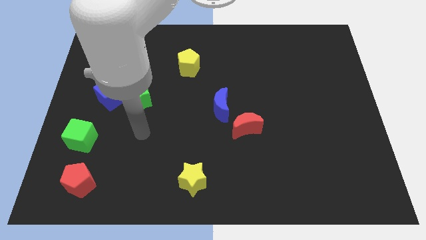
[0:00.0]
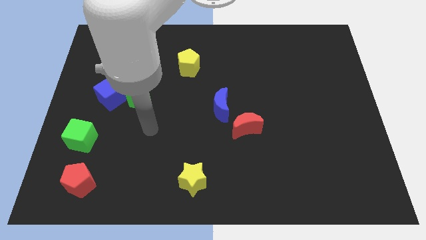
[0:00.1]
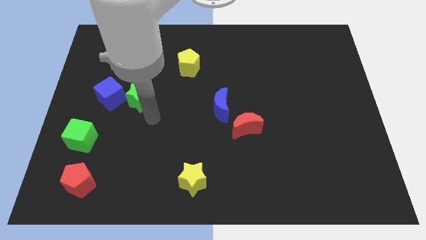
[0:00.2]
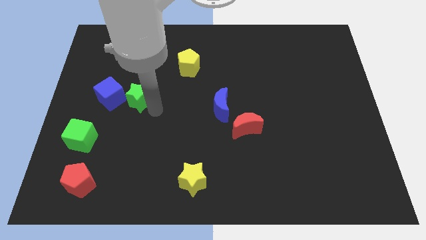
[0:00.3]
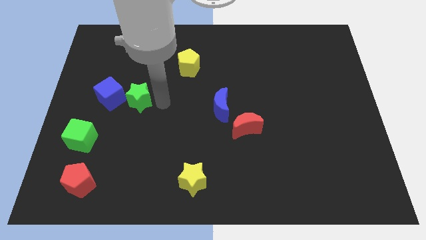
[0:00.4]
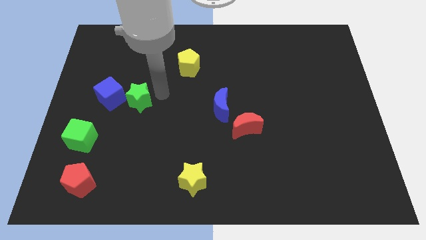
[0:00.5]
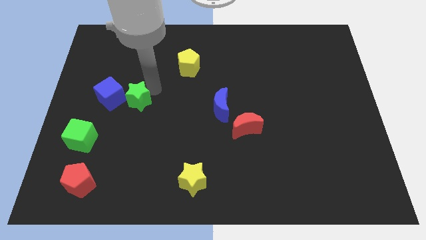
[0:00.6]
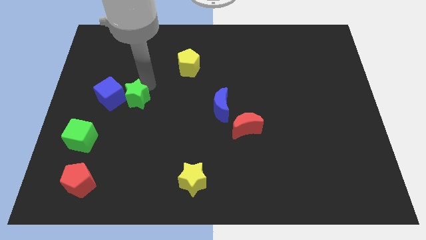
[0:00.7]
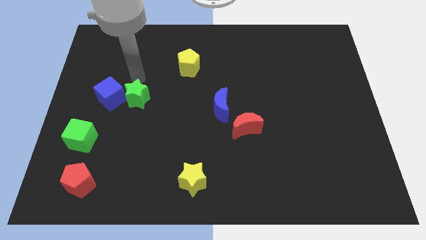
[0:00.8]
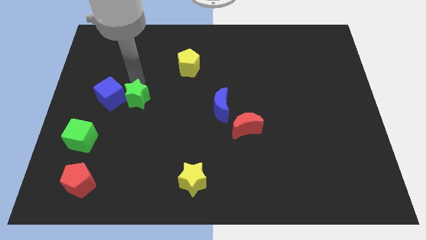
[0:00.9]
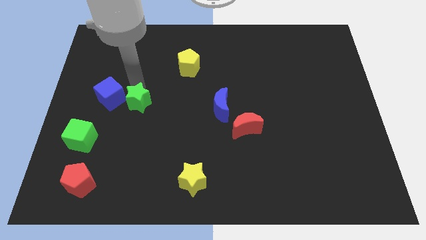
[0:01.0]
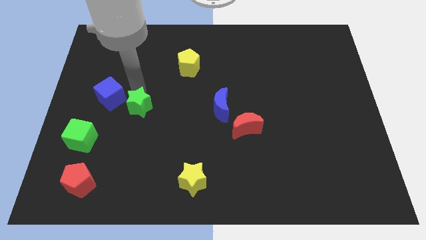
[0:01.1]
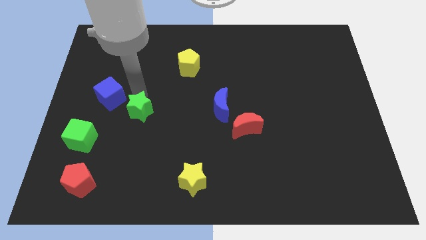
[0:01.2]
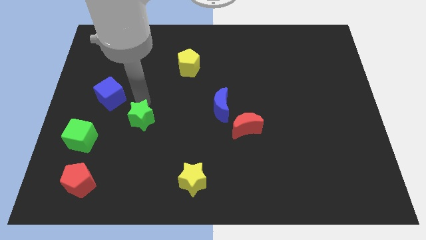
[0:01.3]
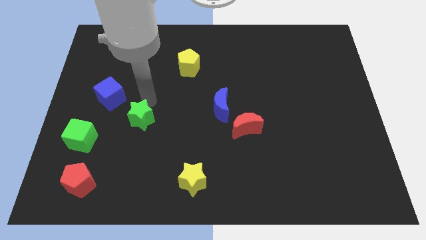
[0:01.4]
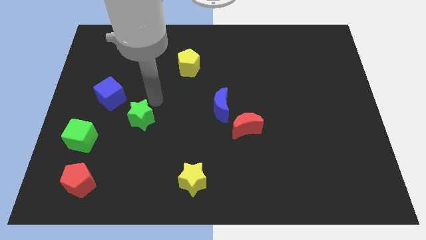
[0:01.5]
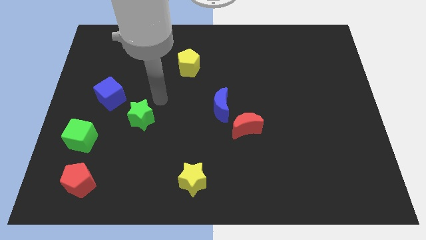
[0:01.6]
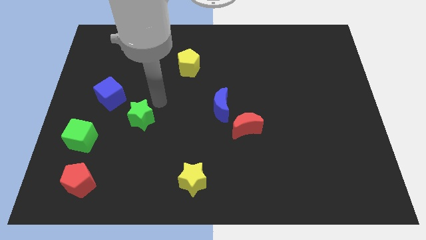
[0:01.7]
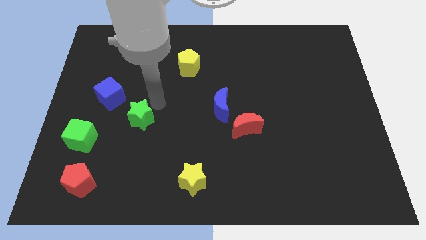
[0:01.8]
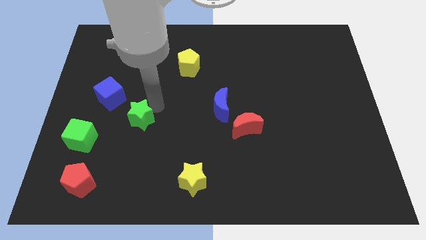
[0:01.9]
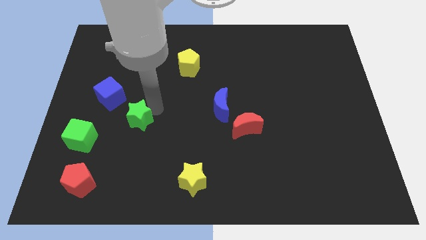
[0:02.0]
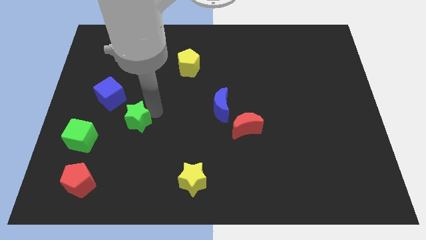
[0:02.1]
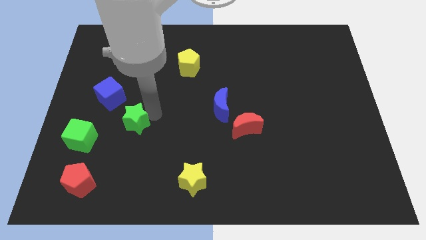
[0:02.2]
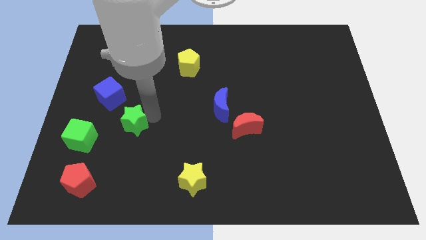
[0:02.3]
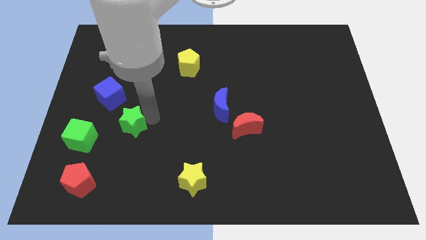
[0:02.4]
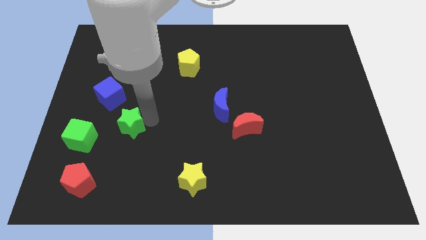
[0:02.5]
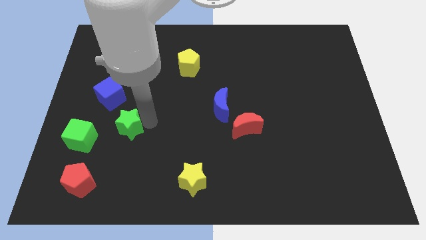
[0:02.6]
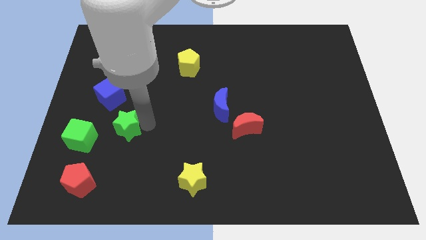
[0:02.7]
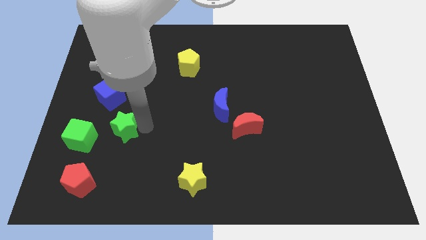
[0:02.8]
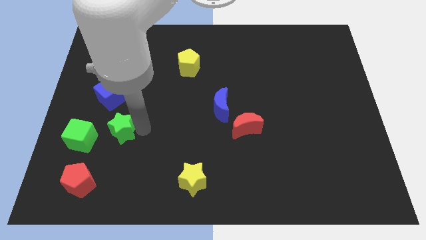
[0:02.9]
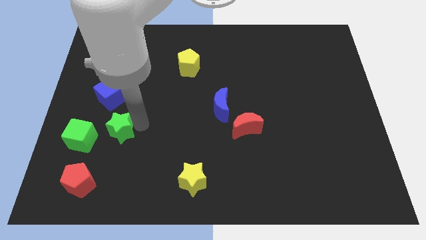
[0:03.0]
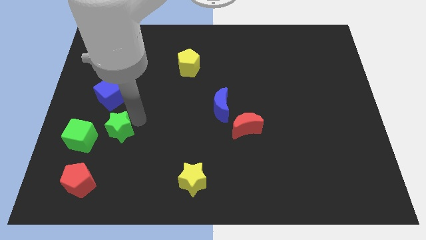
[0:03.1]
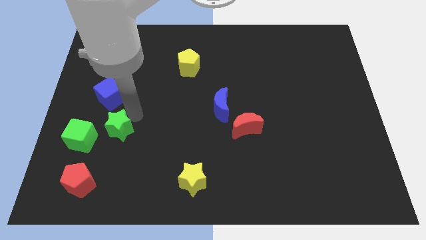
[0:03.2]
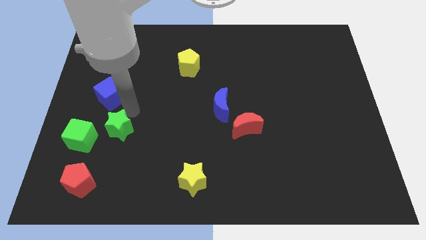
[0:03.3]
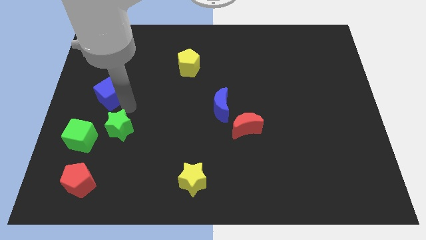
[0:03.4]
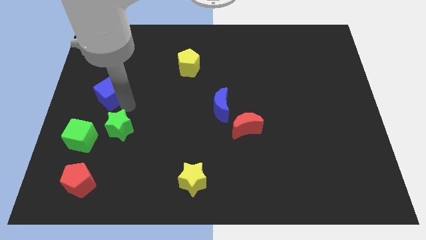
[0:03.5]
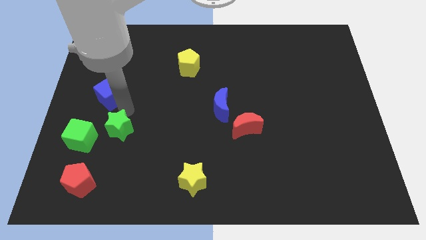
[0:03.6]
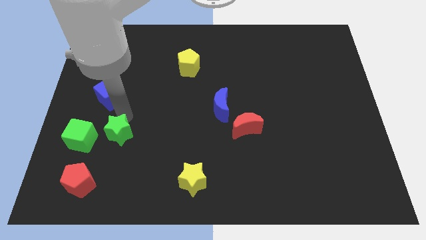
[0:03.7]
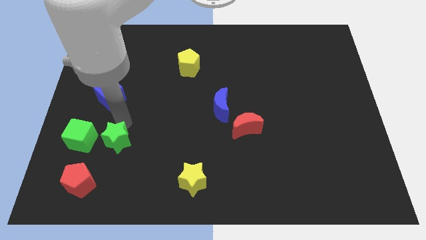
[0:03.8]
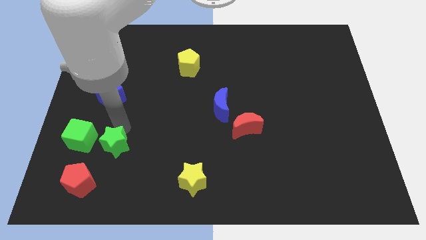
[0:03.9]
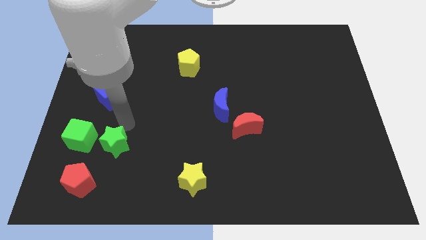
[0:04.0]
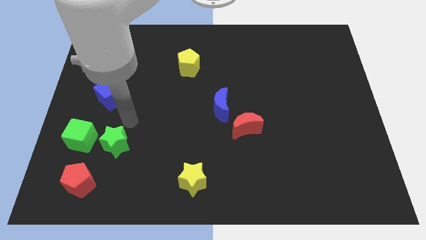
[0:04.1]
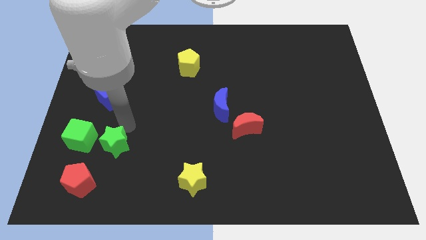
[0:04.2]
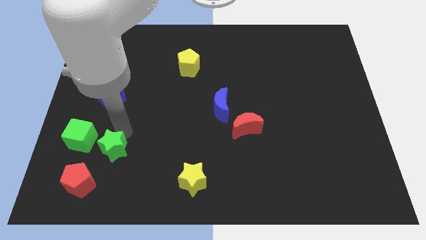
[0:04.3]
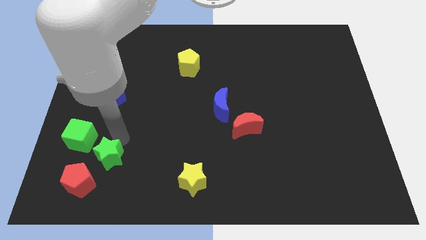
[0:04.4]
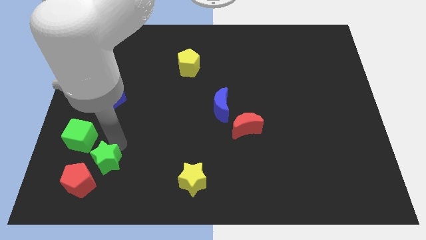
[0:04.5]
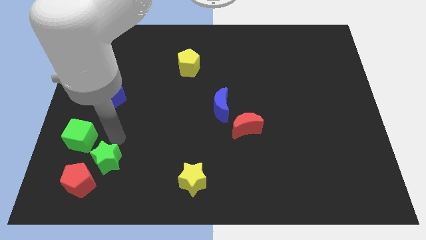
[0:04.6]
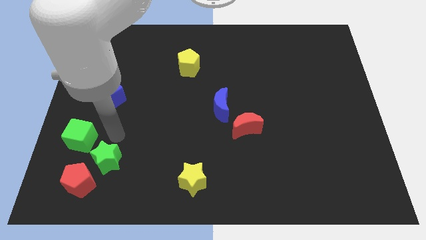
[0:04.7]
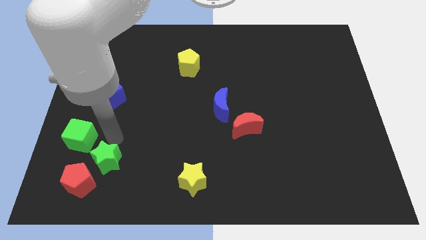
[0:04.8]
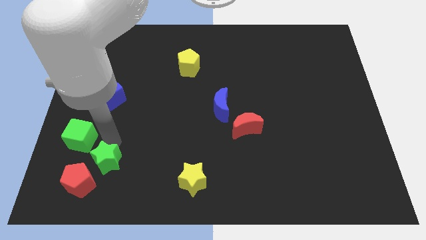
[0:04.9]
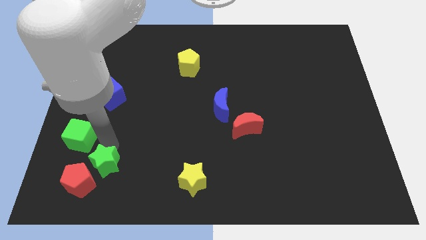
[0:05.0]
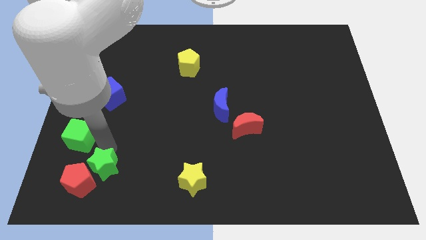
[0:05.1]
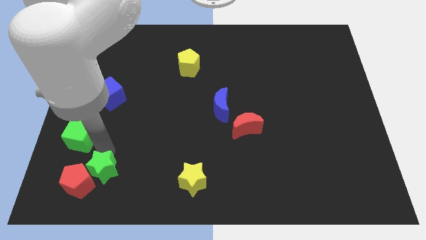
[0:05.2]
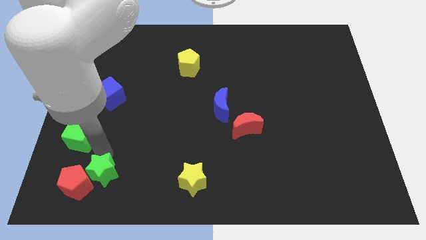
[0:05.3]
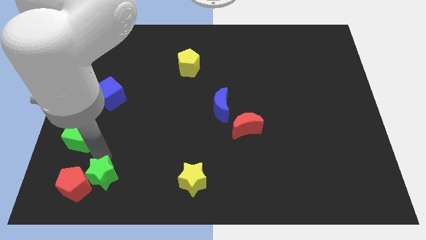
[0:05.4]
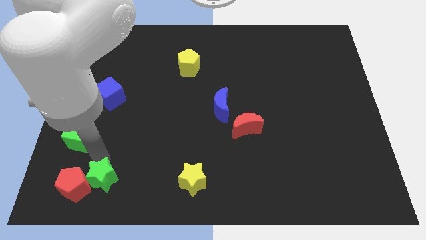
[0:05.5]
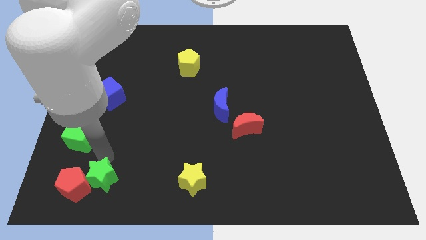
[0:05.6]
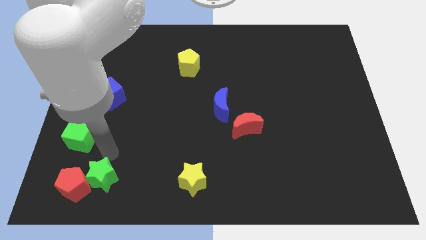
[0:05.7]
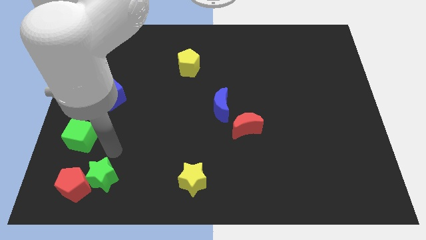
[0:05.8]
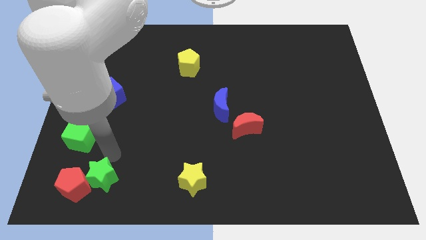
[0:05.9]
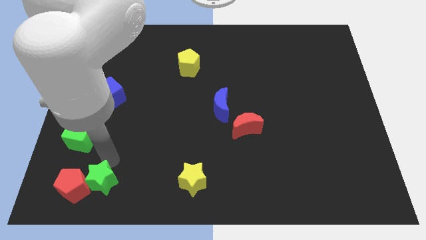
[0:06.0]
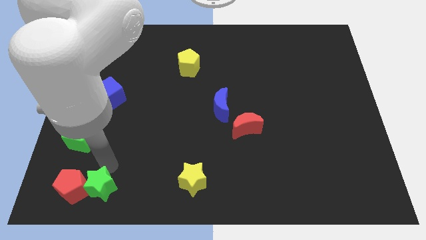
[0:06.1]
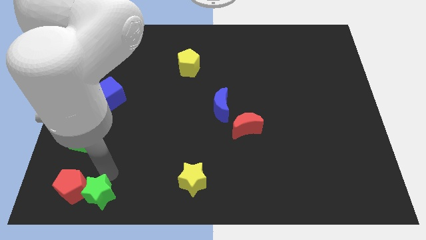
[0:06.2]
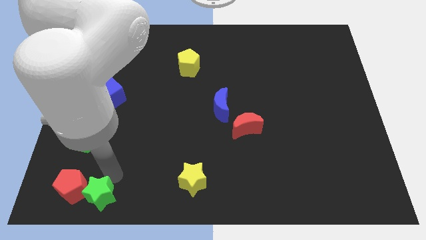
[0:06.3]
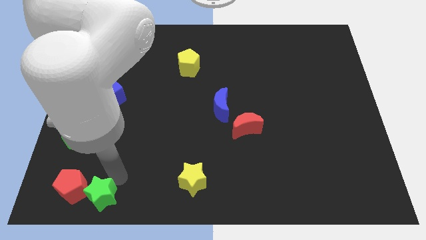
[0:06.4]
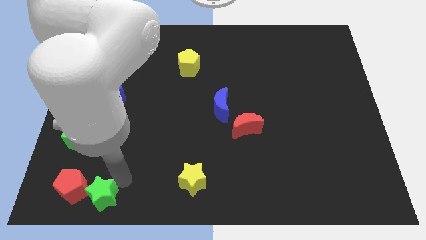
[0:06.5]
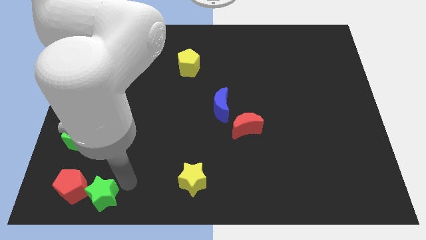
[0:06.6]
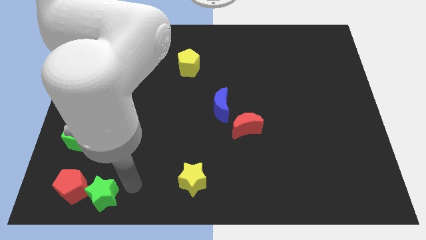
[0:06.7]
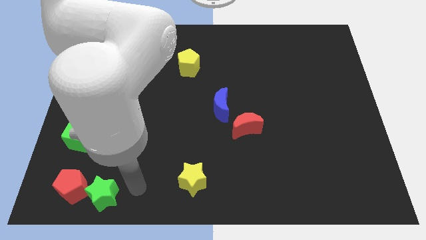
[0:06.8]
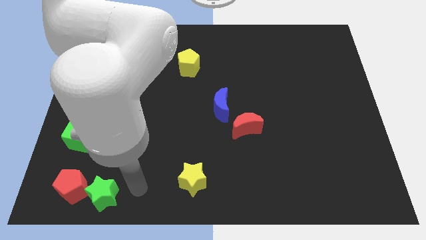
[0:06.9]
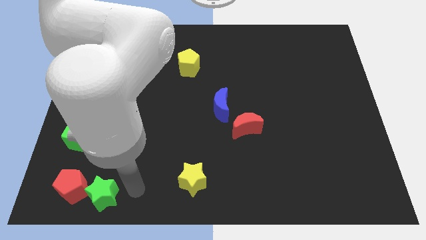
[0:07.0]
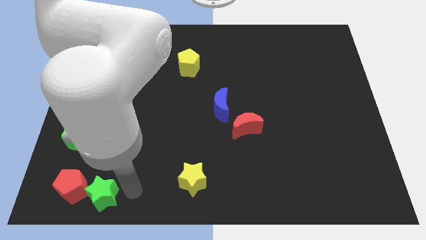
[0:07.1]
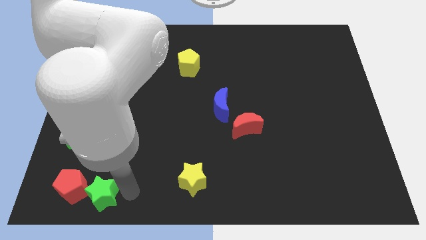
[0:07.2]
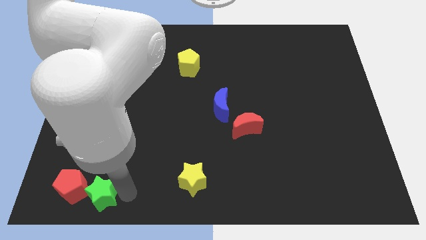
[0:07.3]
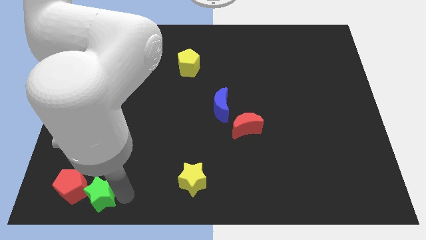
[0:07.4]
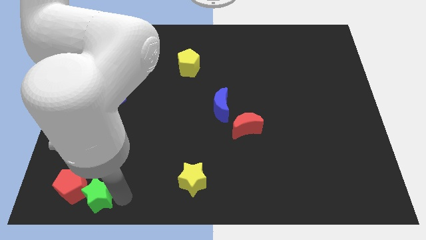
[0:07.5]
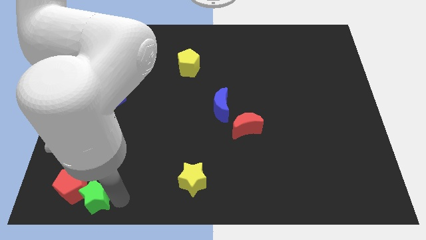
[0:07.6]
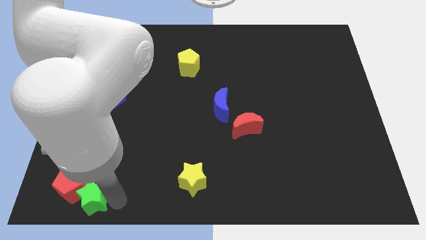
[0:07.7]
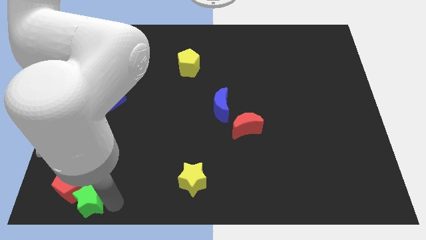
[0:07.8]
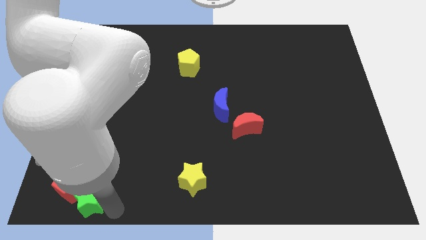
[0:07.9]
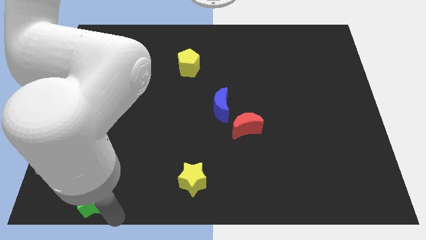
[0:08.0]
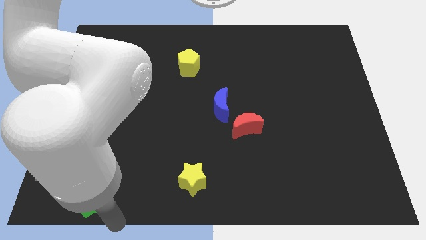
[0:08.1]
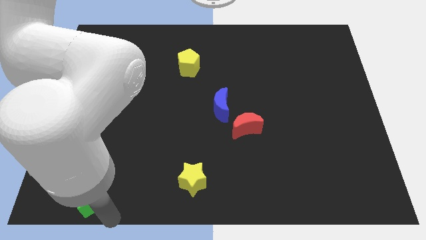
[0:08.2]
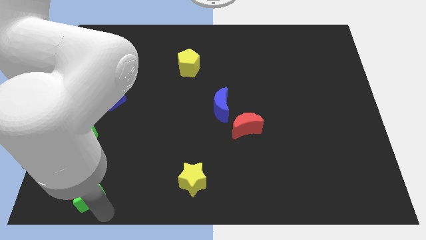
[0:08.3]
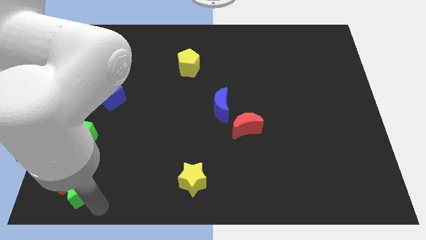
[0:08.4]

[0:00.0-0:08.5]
put the green star to the bottom side of the green cube
